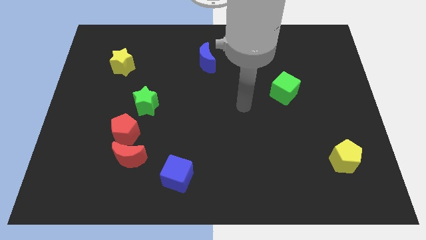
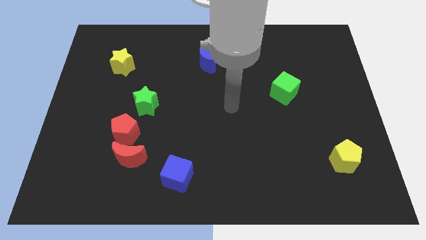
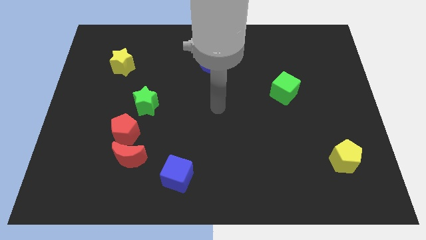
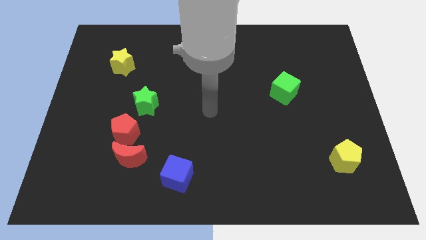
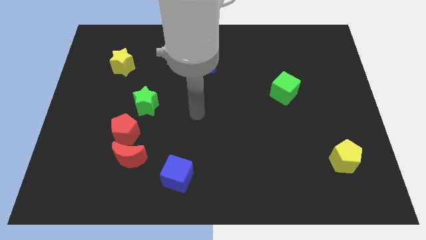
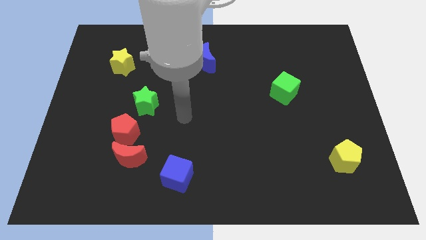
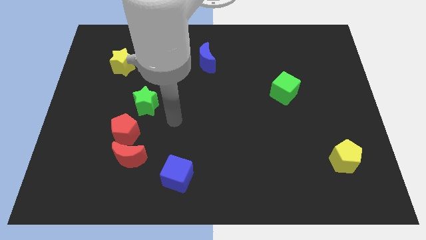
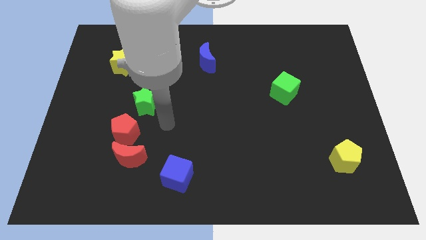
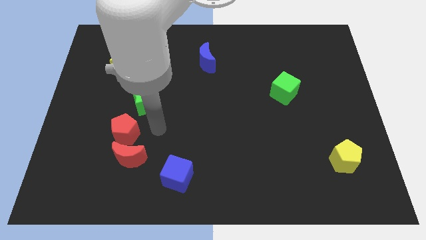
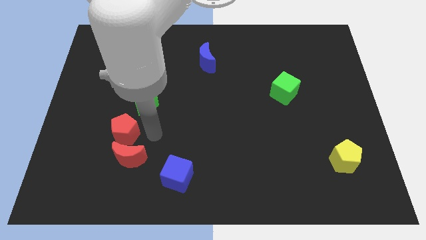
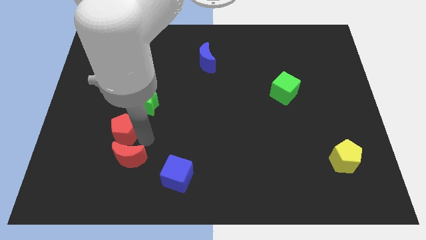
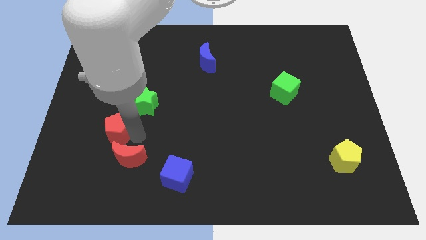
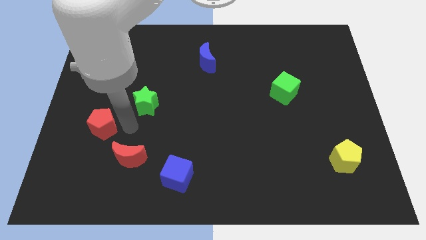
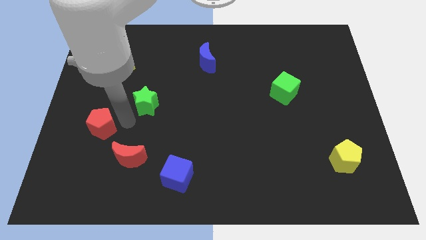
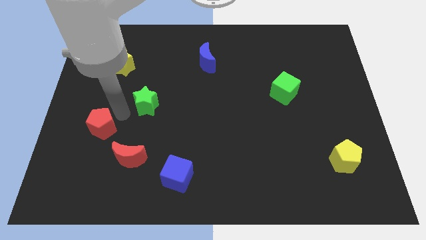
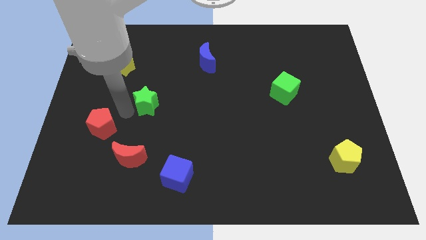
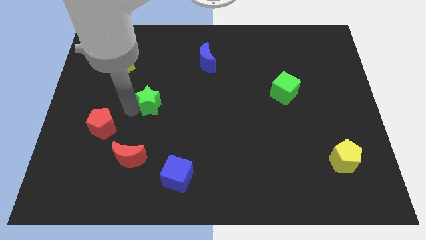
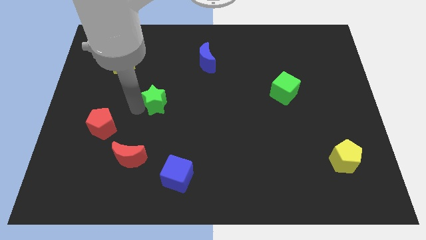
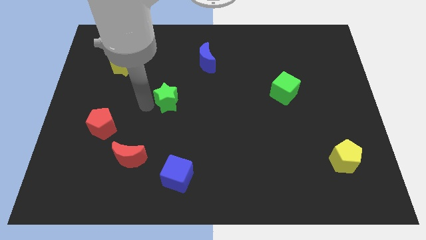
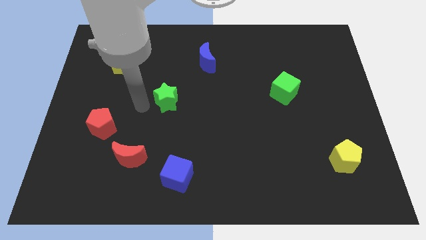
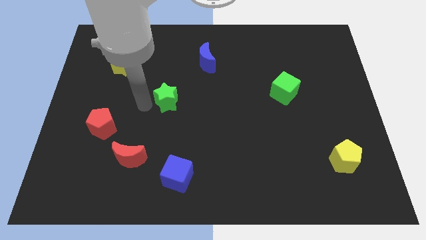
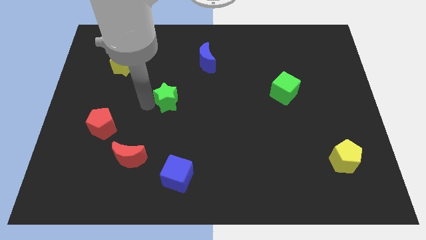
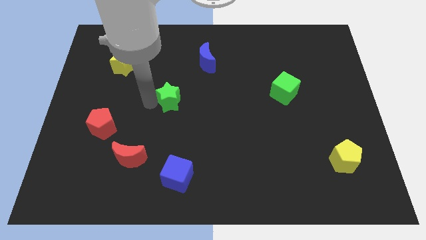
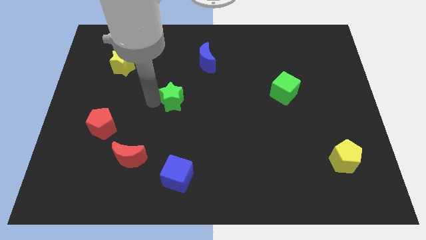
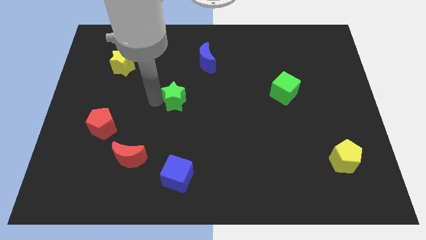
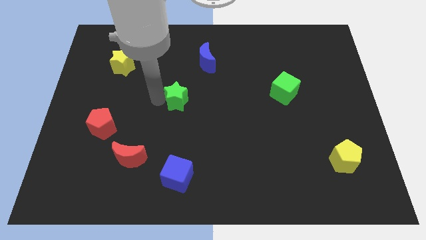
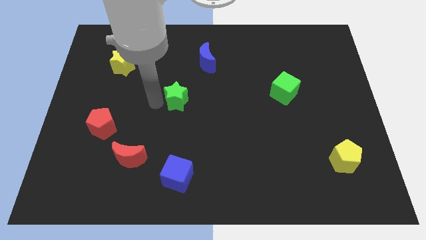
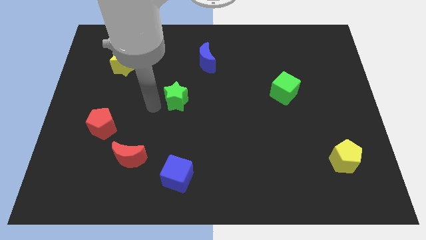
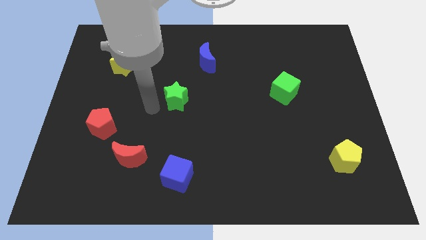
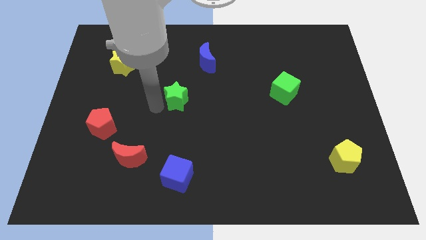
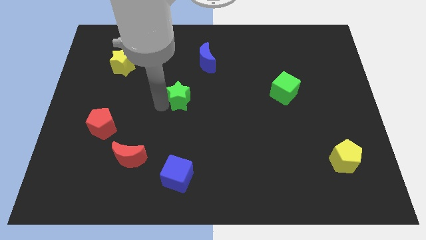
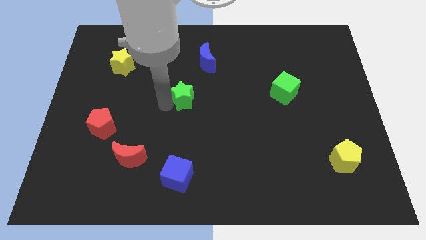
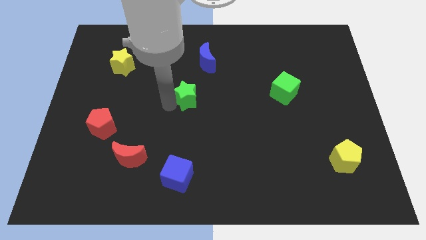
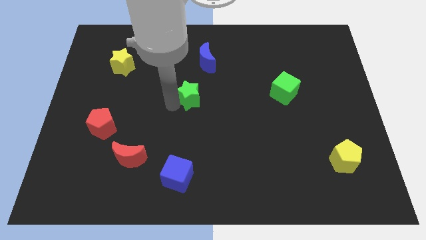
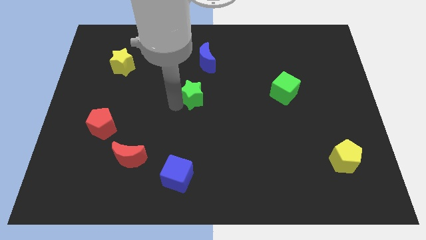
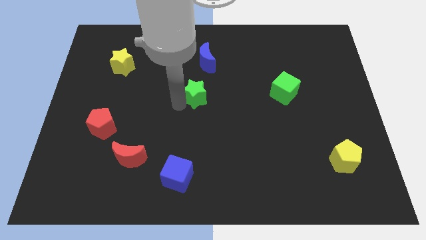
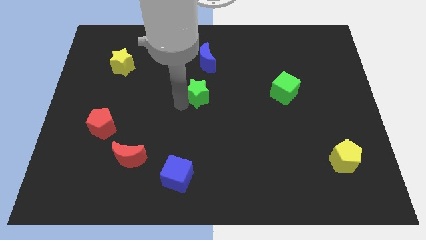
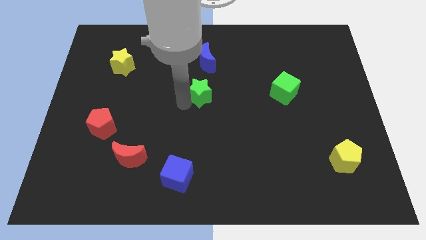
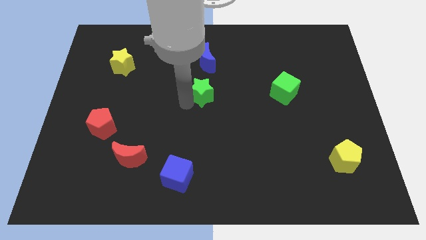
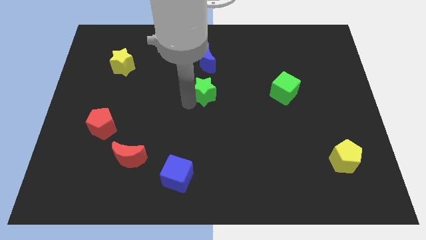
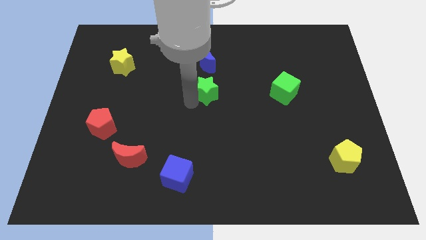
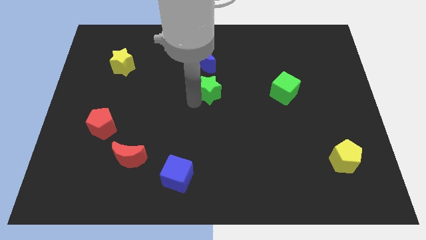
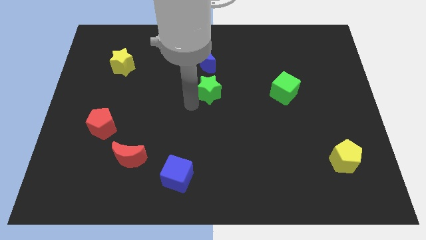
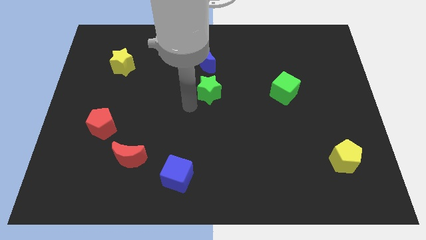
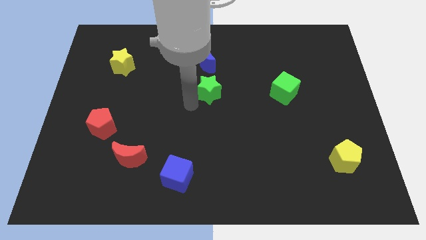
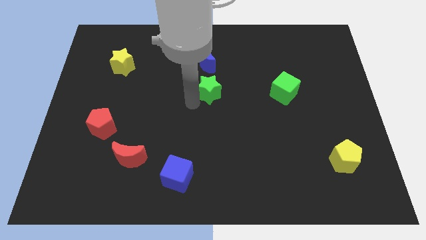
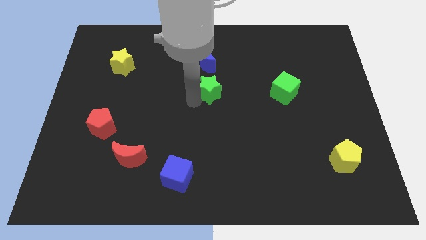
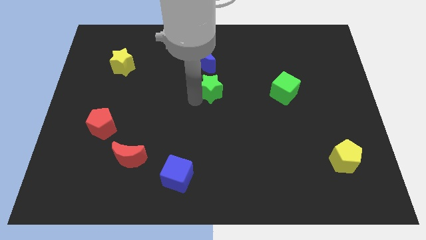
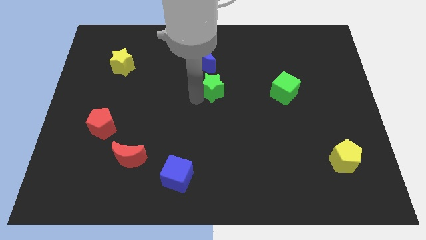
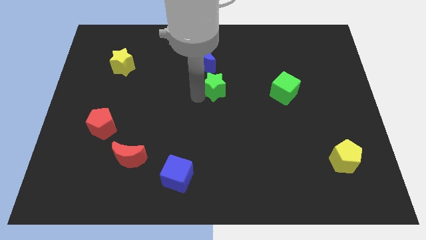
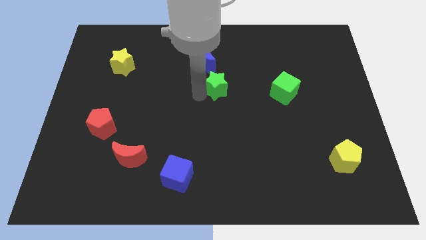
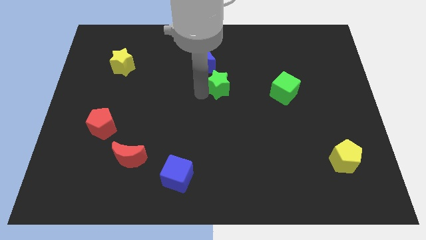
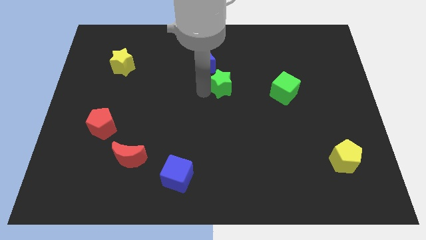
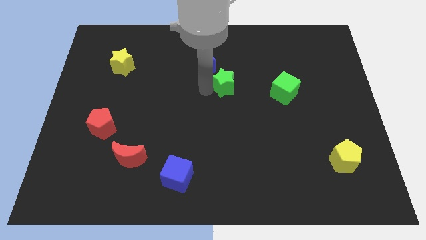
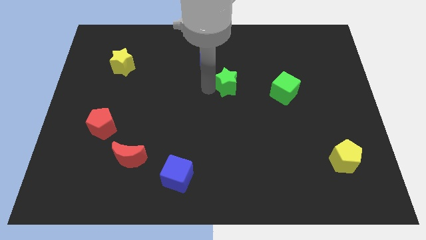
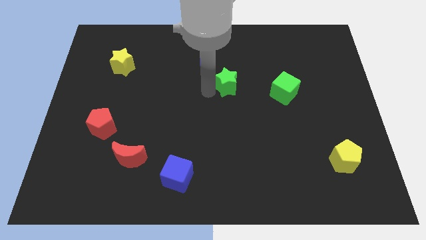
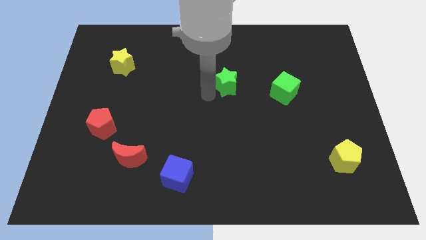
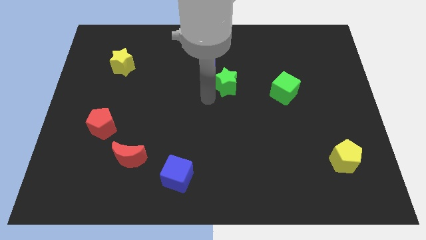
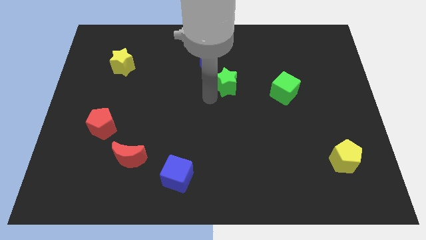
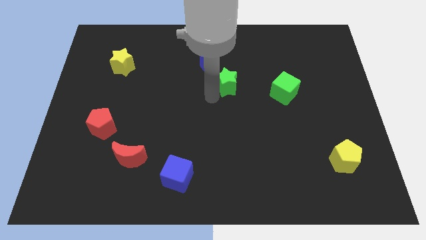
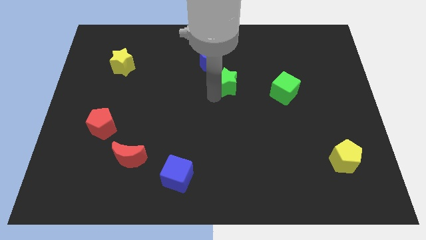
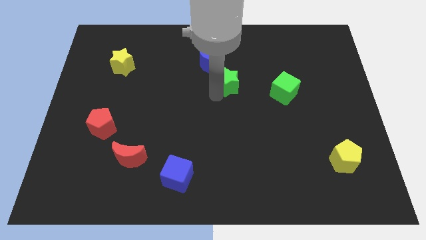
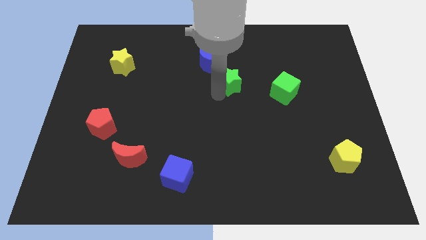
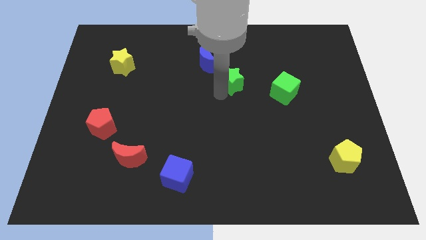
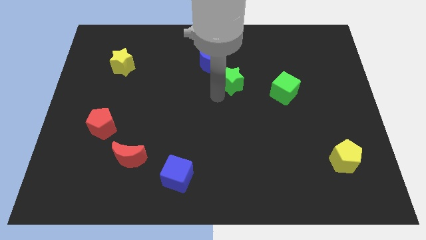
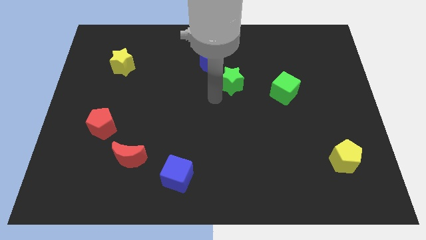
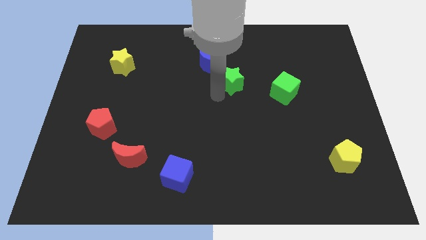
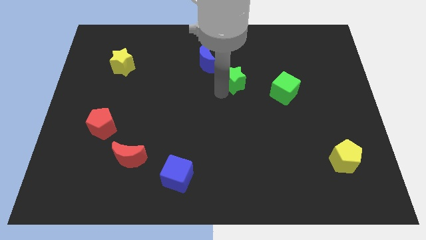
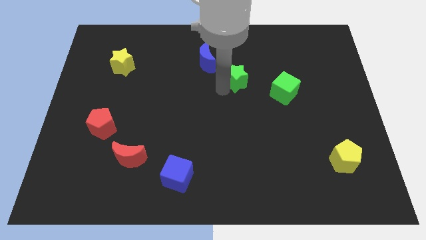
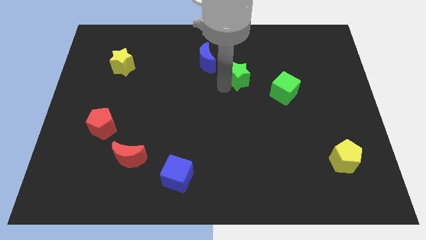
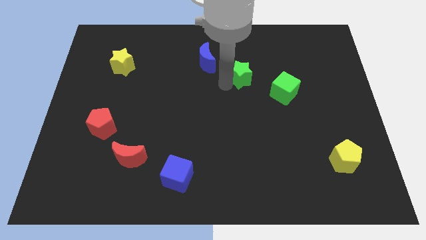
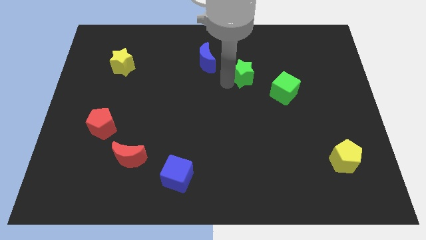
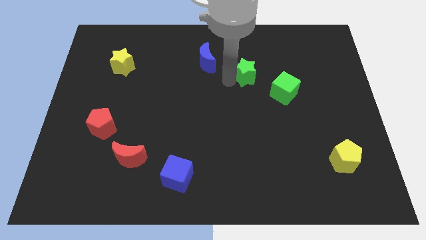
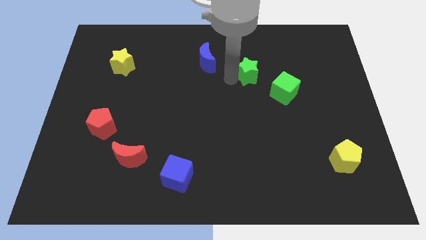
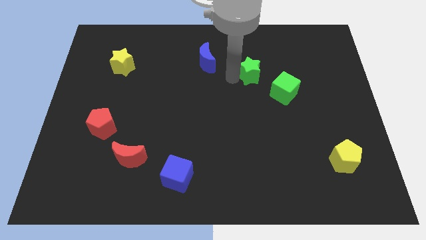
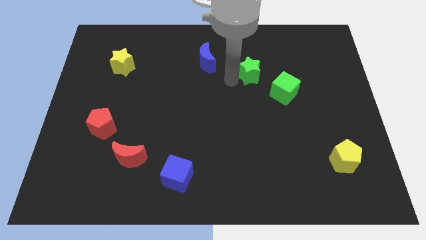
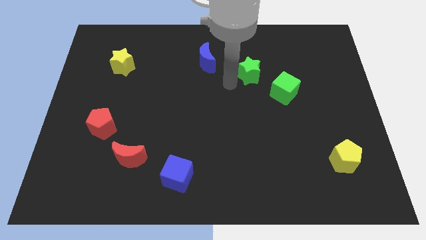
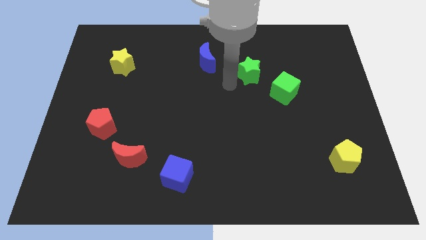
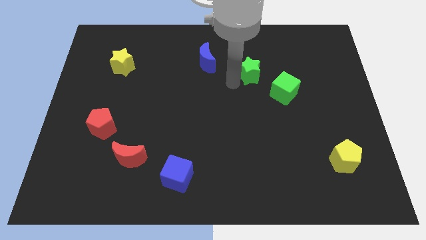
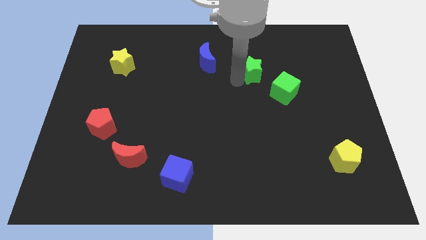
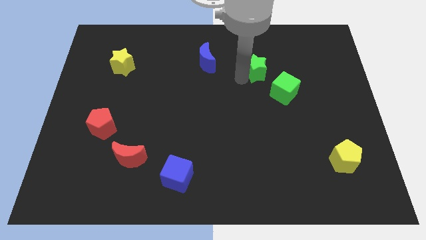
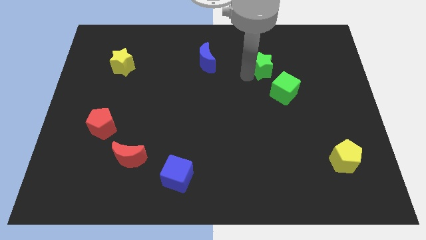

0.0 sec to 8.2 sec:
move the green star to the top of the green cube
